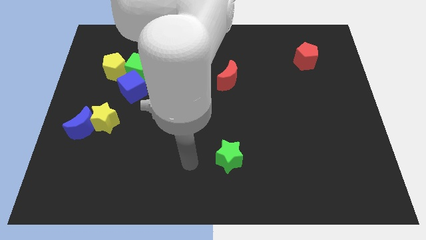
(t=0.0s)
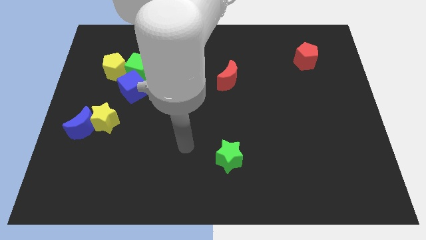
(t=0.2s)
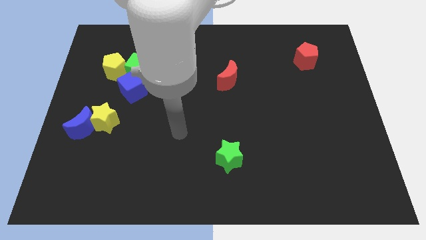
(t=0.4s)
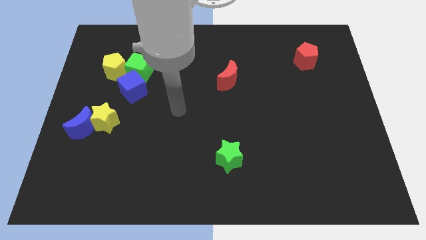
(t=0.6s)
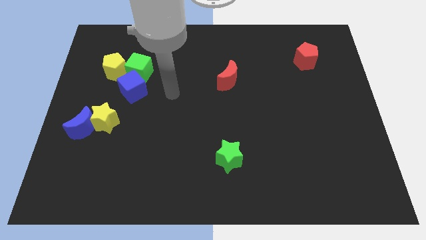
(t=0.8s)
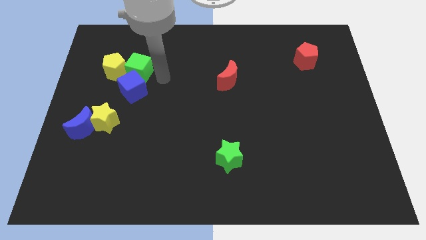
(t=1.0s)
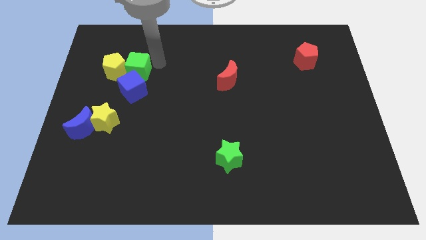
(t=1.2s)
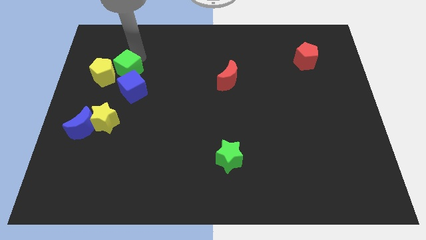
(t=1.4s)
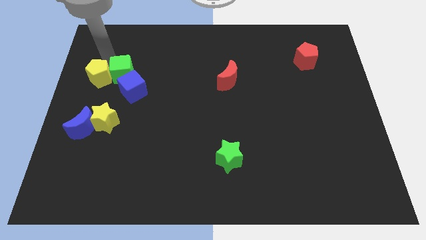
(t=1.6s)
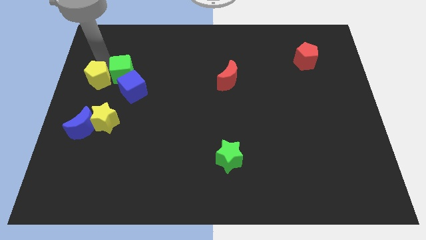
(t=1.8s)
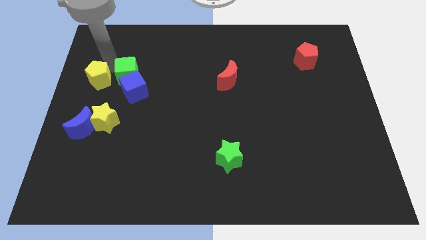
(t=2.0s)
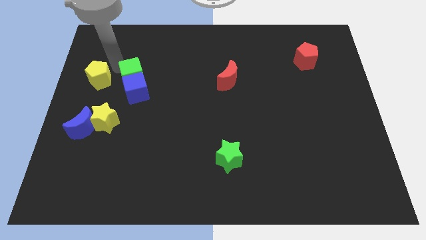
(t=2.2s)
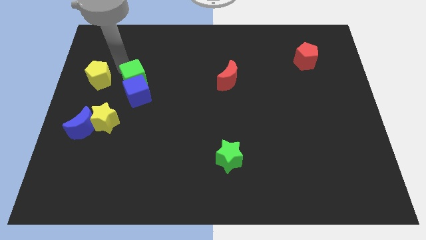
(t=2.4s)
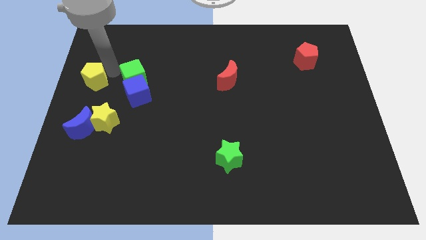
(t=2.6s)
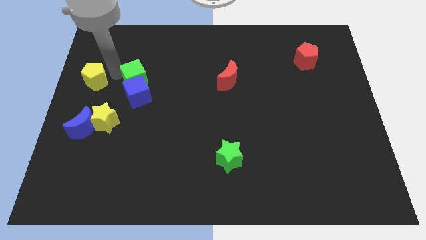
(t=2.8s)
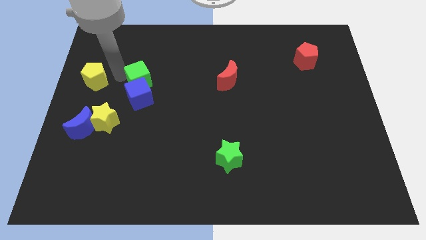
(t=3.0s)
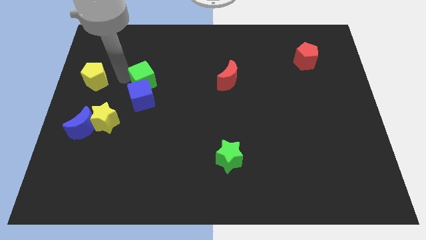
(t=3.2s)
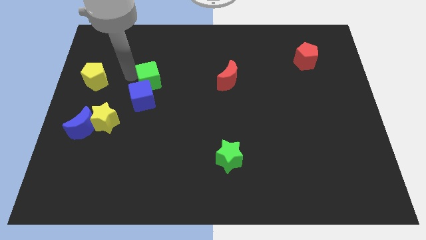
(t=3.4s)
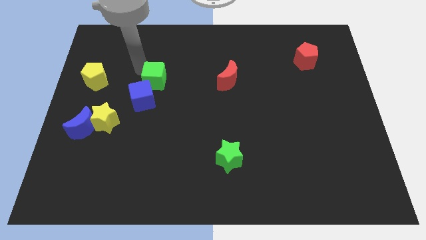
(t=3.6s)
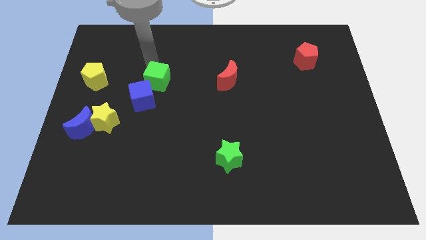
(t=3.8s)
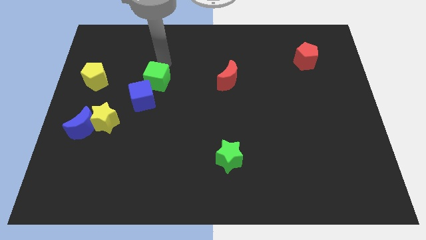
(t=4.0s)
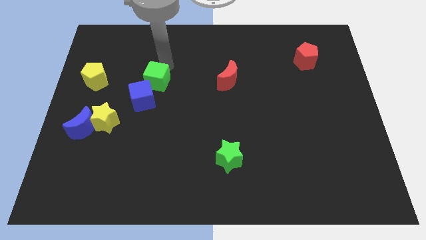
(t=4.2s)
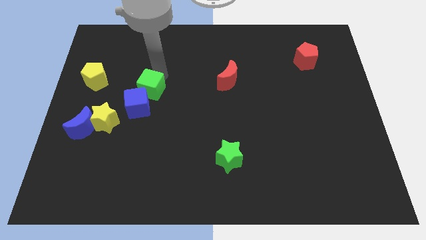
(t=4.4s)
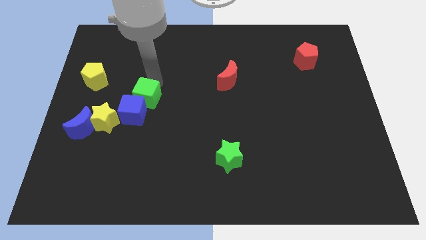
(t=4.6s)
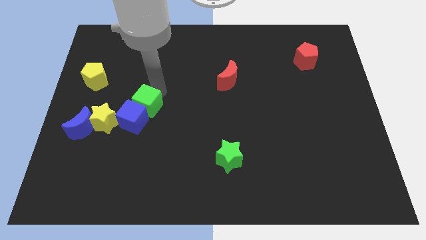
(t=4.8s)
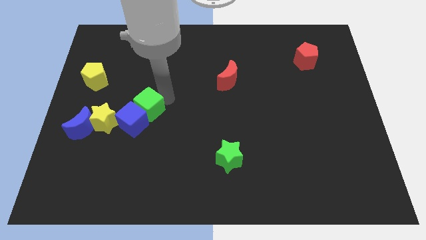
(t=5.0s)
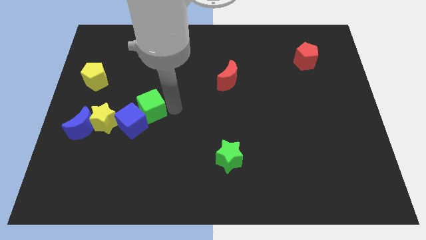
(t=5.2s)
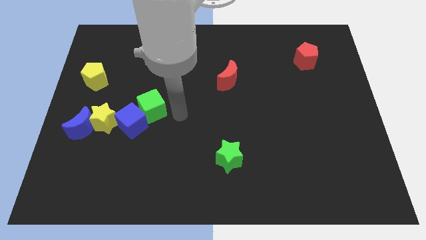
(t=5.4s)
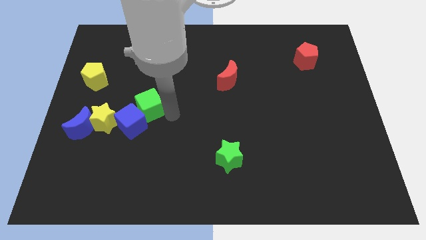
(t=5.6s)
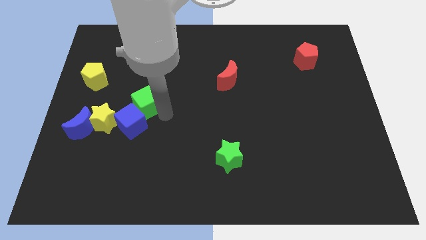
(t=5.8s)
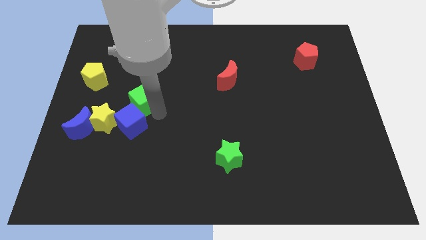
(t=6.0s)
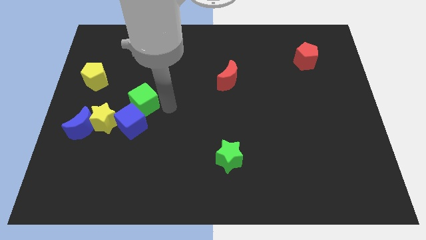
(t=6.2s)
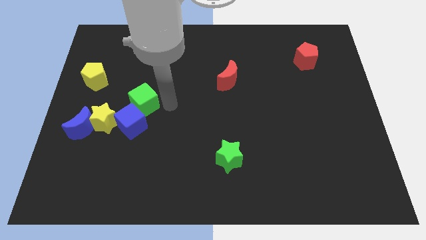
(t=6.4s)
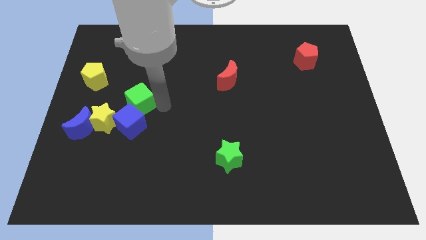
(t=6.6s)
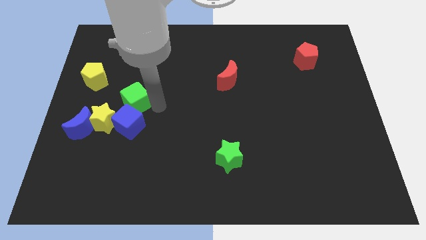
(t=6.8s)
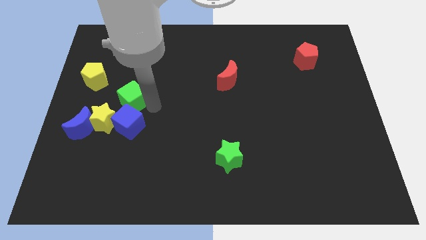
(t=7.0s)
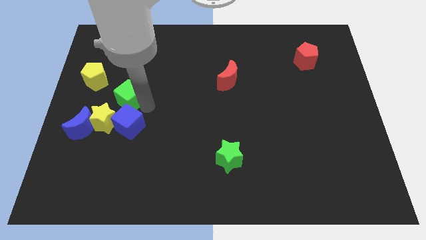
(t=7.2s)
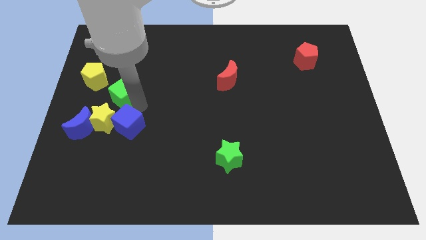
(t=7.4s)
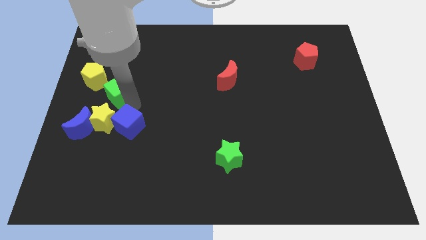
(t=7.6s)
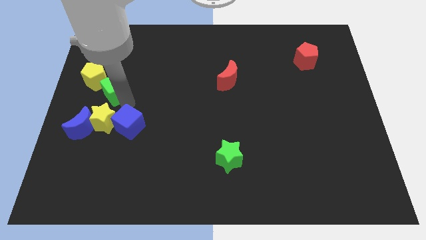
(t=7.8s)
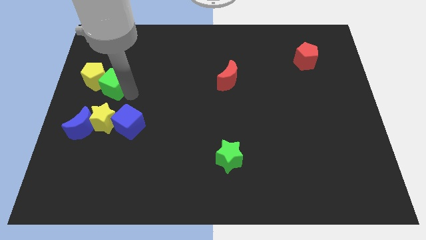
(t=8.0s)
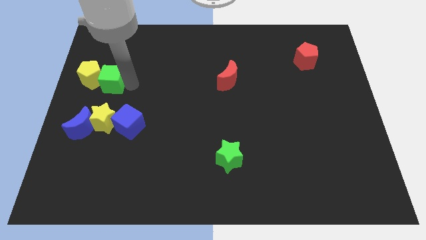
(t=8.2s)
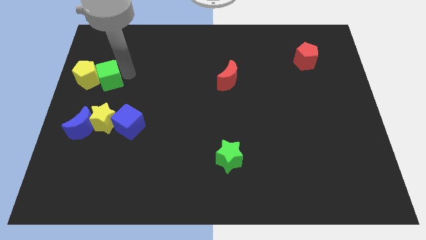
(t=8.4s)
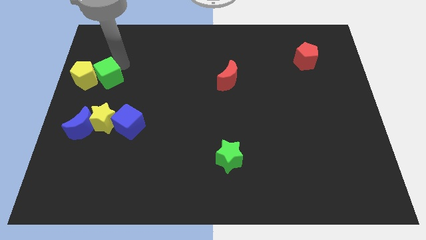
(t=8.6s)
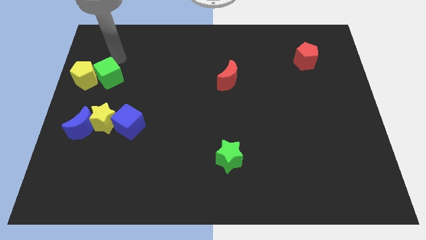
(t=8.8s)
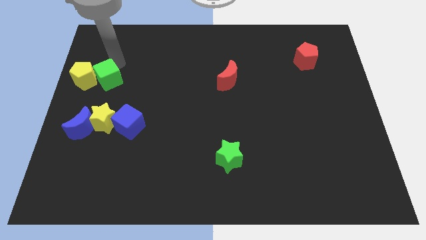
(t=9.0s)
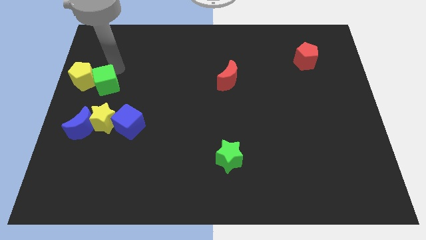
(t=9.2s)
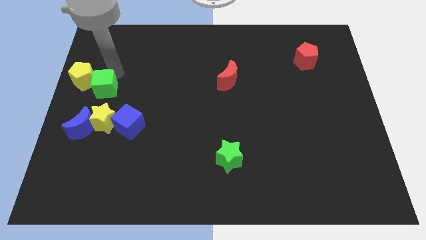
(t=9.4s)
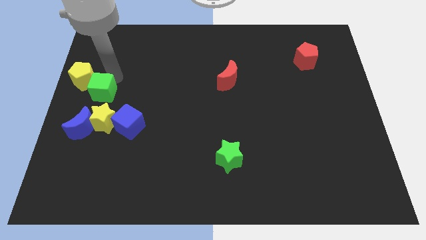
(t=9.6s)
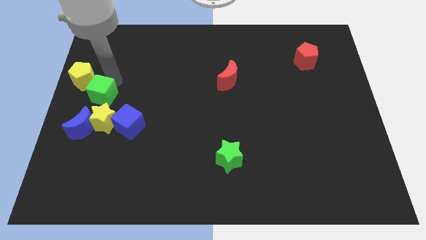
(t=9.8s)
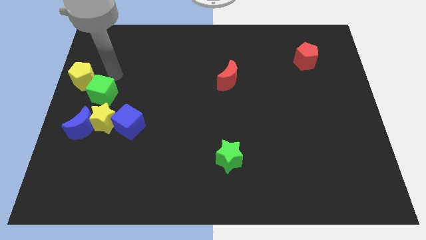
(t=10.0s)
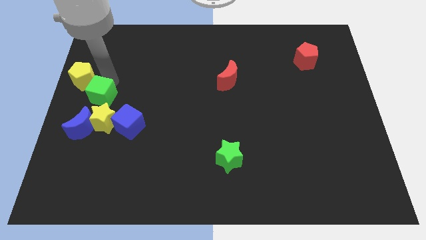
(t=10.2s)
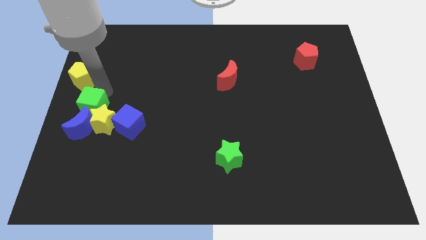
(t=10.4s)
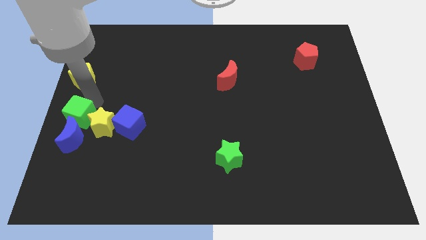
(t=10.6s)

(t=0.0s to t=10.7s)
put the green cube towards the blue moon

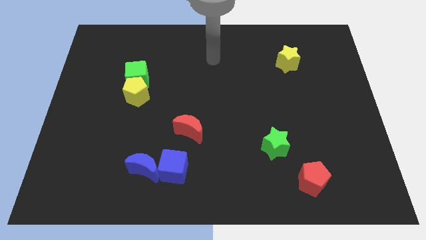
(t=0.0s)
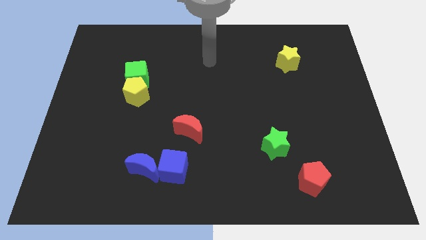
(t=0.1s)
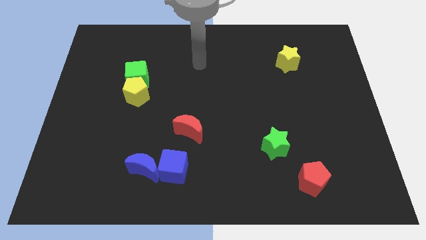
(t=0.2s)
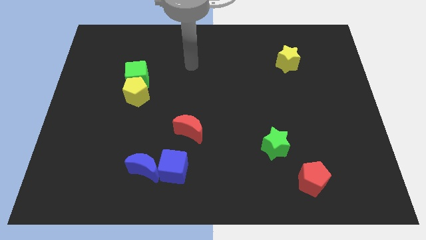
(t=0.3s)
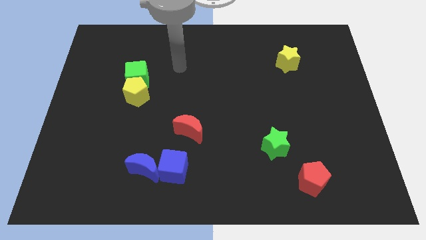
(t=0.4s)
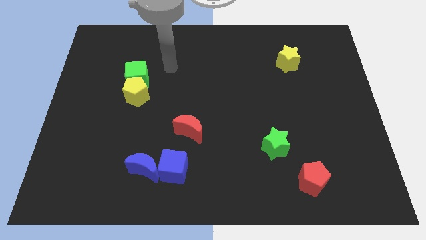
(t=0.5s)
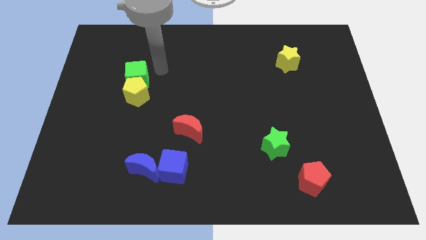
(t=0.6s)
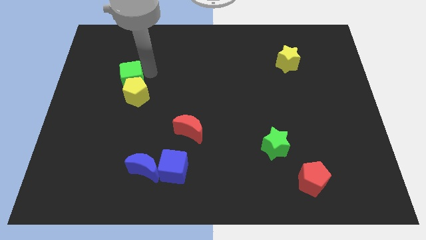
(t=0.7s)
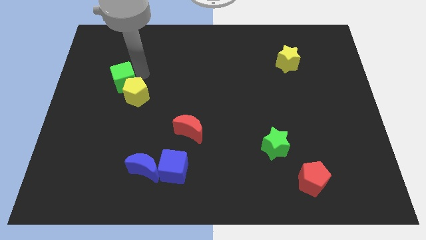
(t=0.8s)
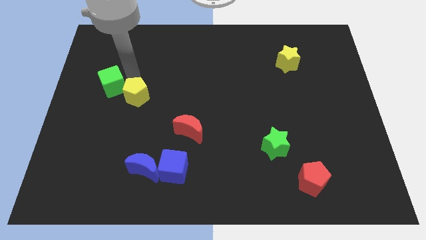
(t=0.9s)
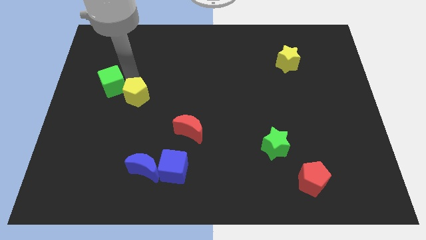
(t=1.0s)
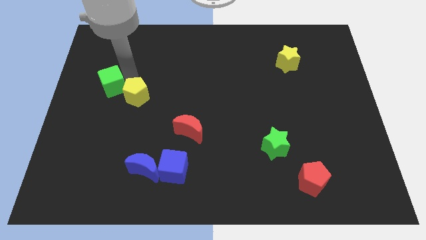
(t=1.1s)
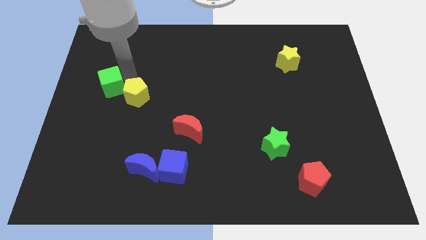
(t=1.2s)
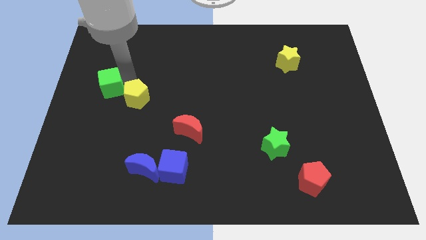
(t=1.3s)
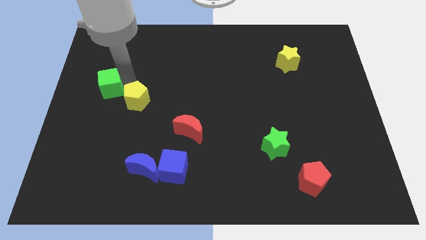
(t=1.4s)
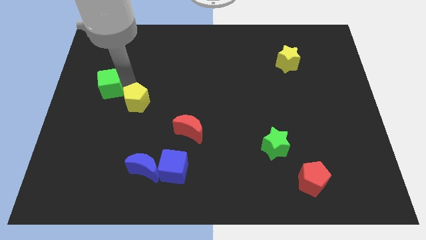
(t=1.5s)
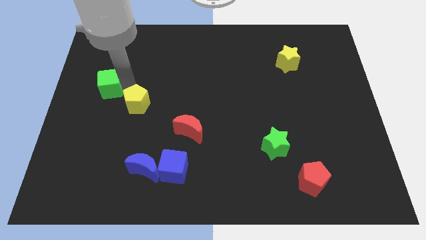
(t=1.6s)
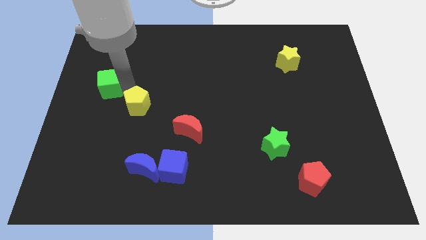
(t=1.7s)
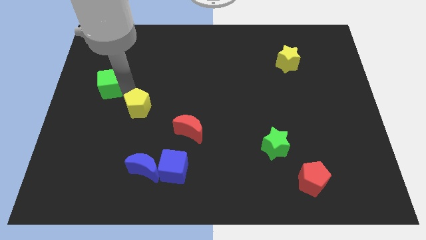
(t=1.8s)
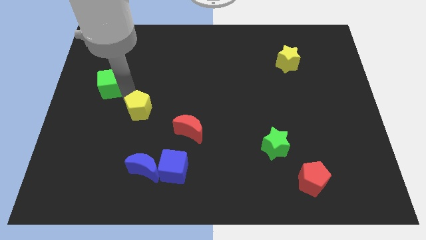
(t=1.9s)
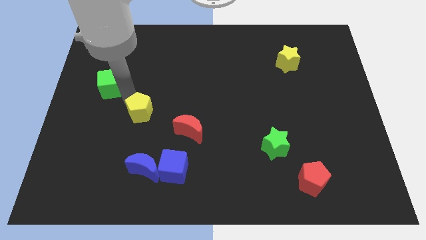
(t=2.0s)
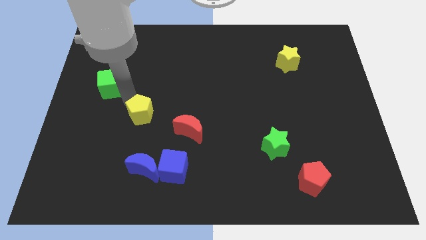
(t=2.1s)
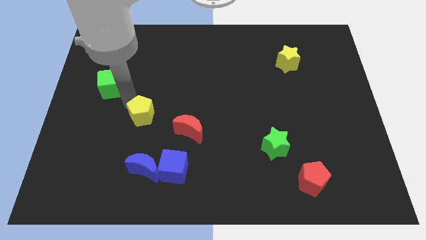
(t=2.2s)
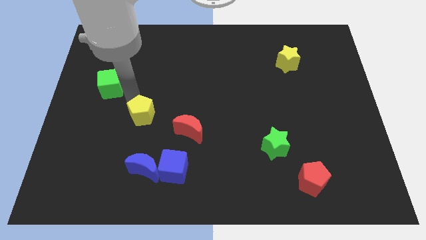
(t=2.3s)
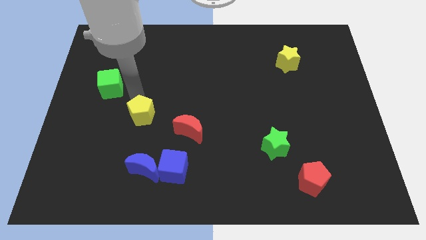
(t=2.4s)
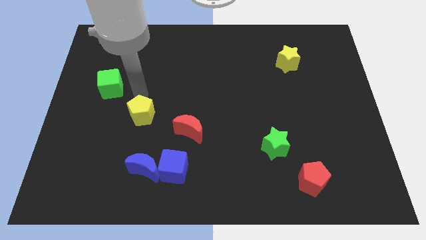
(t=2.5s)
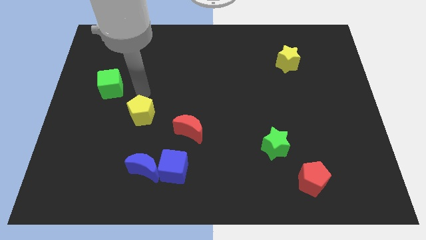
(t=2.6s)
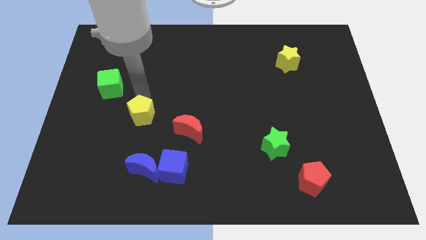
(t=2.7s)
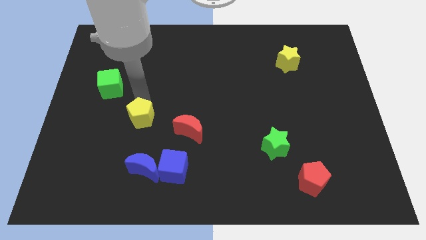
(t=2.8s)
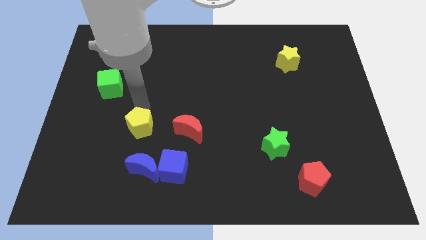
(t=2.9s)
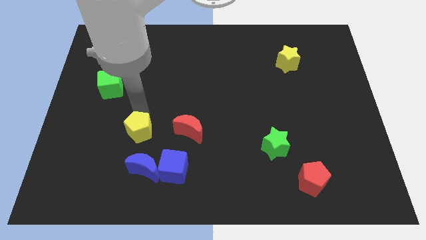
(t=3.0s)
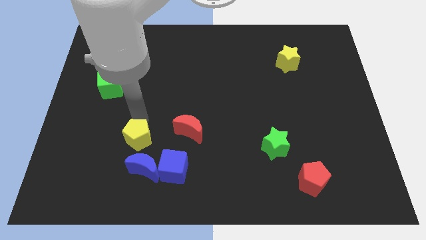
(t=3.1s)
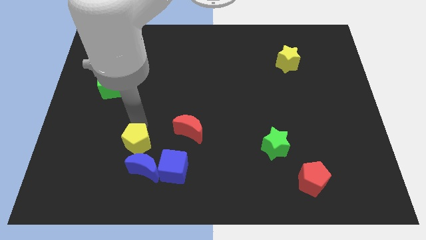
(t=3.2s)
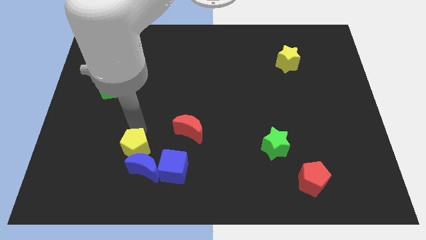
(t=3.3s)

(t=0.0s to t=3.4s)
move the yellow pentagon next to the blue moon
